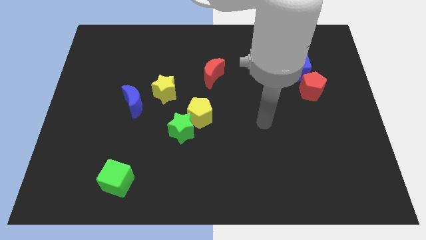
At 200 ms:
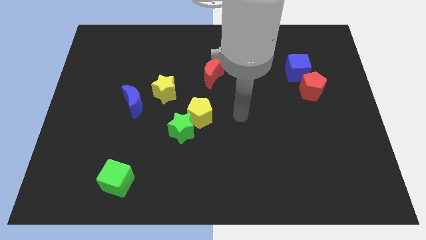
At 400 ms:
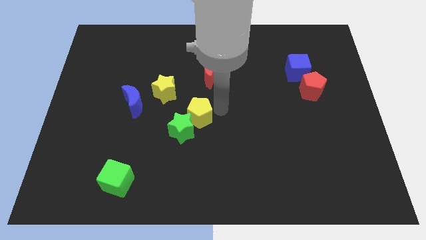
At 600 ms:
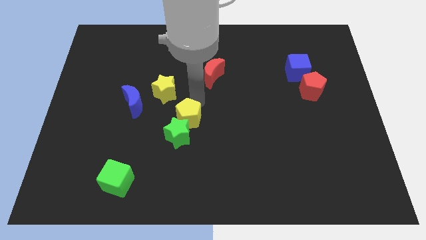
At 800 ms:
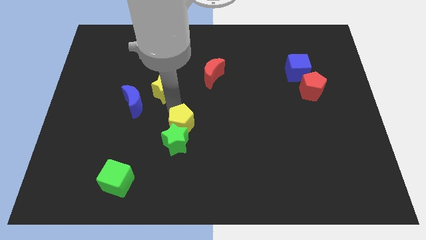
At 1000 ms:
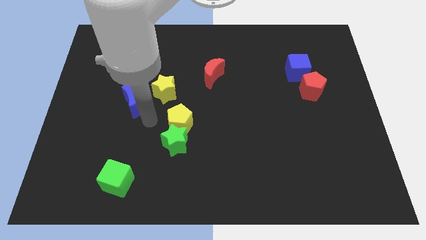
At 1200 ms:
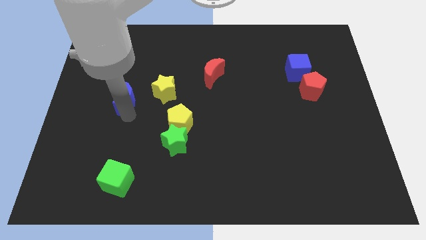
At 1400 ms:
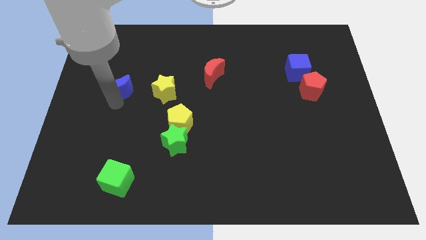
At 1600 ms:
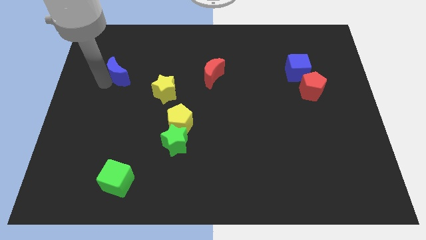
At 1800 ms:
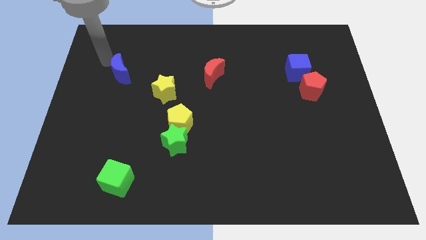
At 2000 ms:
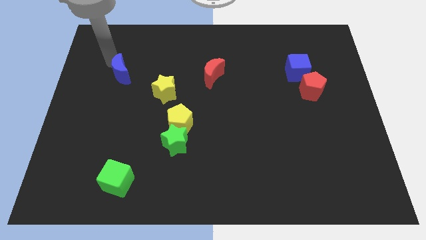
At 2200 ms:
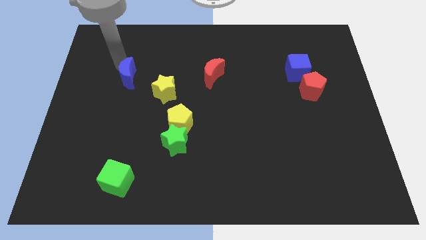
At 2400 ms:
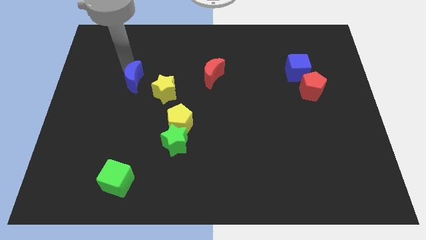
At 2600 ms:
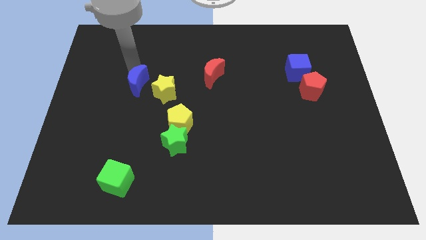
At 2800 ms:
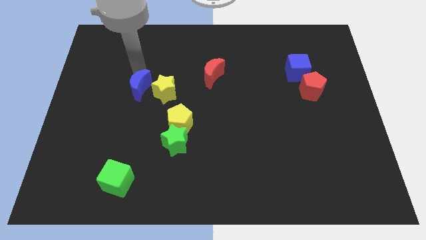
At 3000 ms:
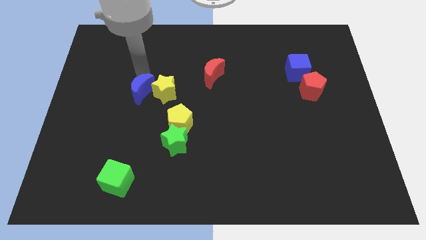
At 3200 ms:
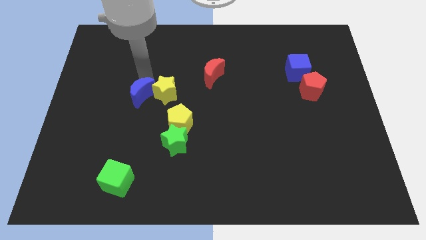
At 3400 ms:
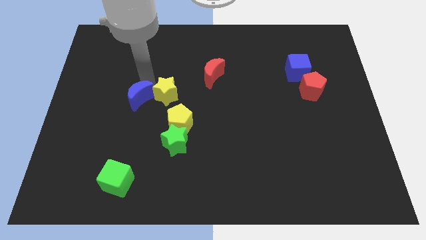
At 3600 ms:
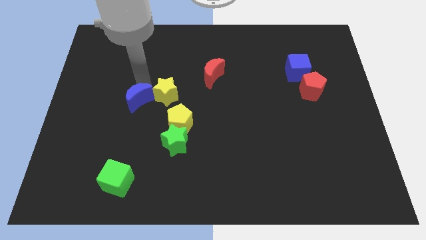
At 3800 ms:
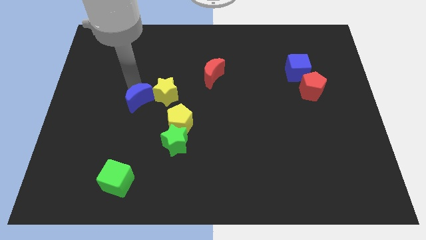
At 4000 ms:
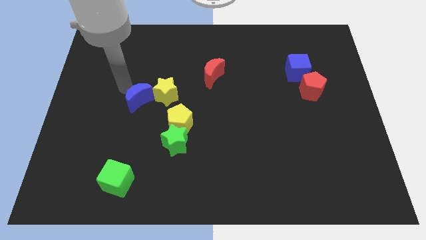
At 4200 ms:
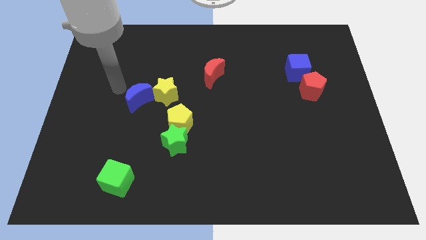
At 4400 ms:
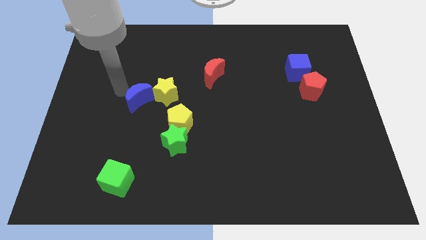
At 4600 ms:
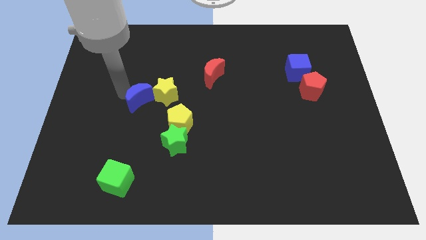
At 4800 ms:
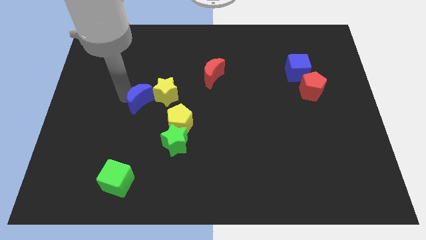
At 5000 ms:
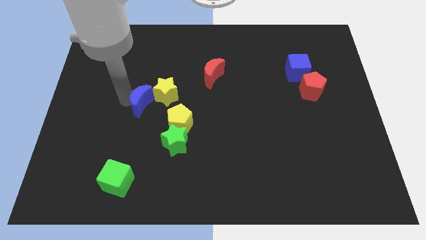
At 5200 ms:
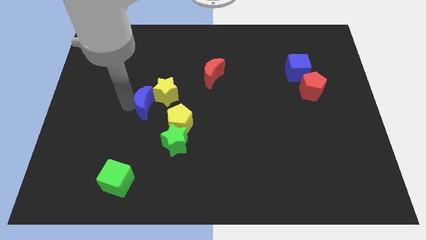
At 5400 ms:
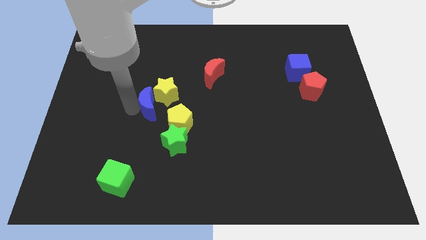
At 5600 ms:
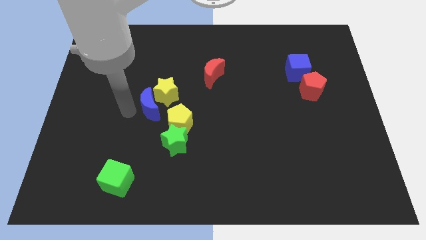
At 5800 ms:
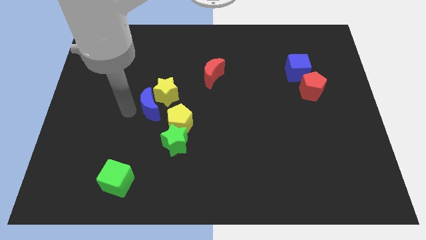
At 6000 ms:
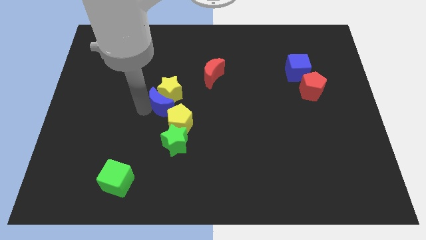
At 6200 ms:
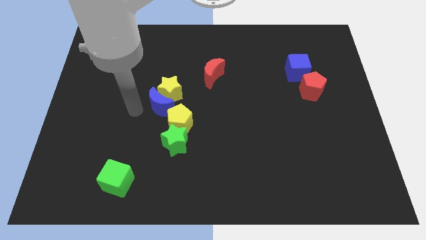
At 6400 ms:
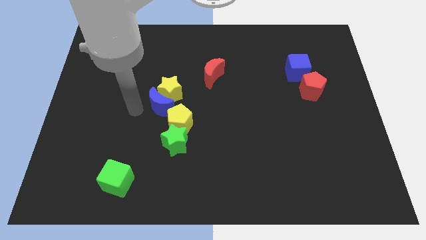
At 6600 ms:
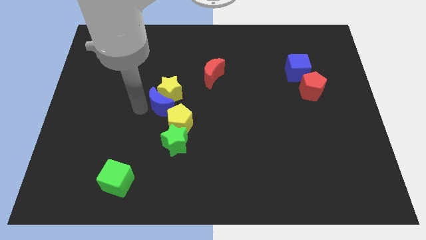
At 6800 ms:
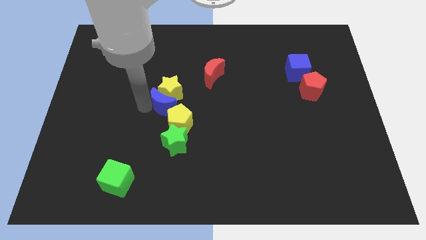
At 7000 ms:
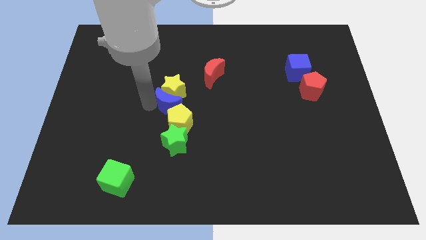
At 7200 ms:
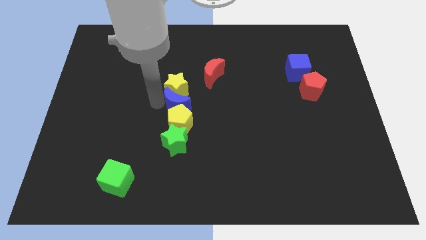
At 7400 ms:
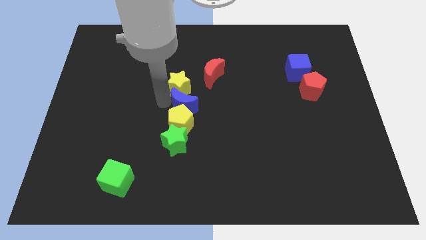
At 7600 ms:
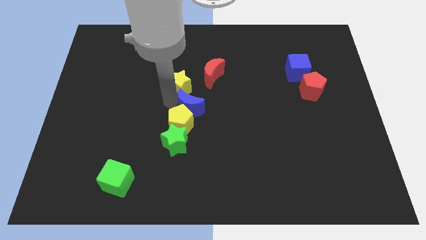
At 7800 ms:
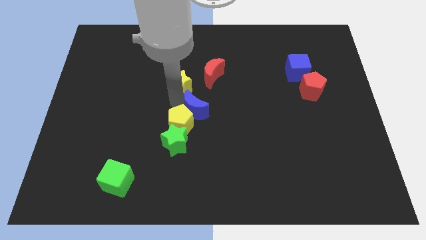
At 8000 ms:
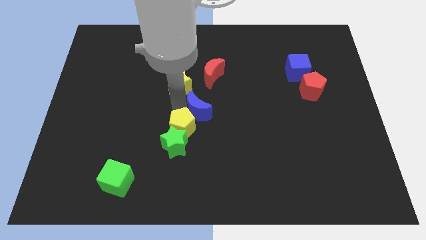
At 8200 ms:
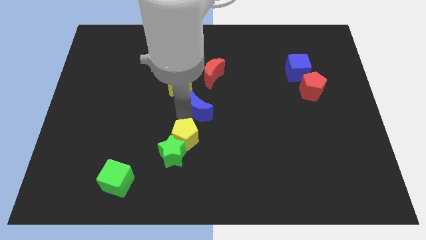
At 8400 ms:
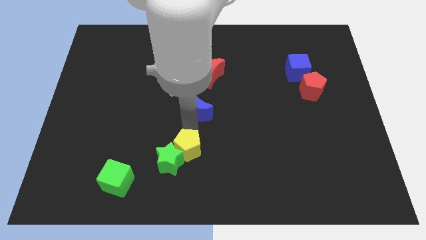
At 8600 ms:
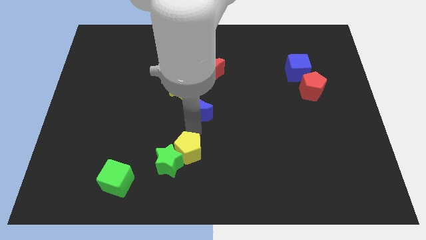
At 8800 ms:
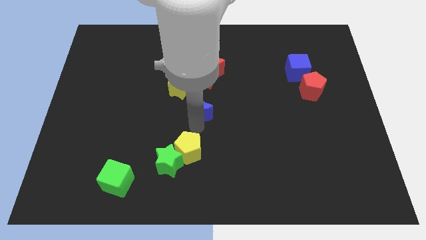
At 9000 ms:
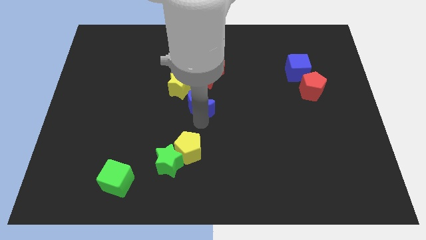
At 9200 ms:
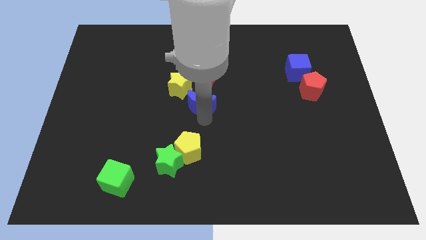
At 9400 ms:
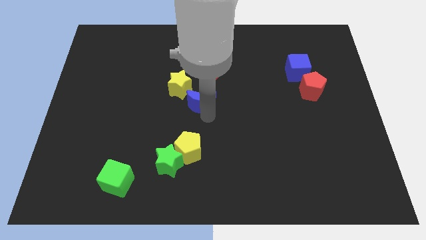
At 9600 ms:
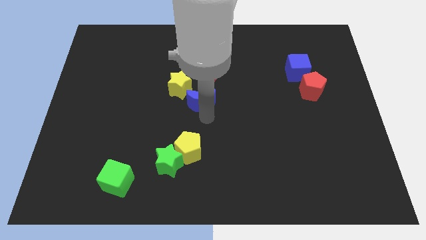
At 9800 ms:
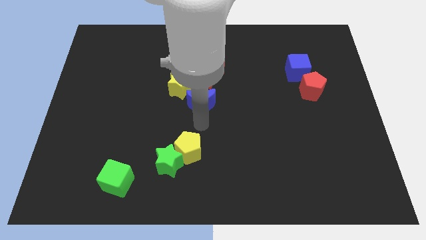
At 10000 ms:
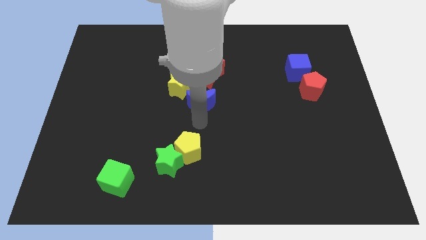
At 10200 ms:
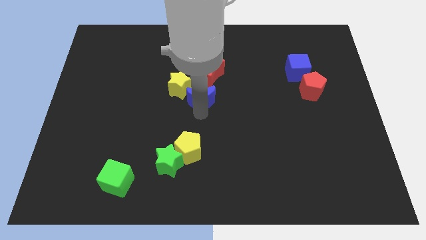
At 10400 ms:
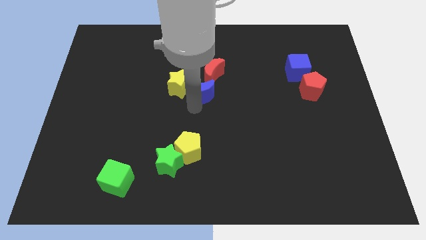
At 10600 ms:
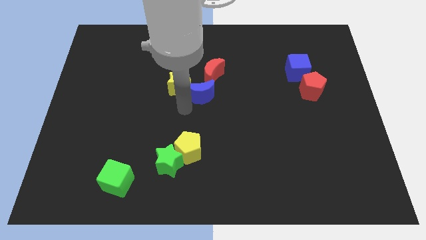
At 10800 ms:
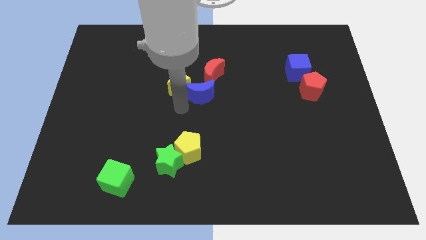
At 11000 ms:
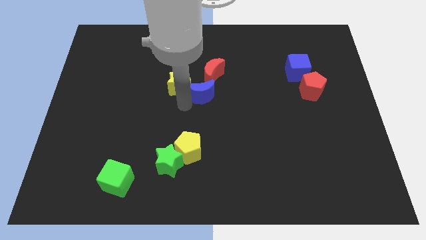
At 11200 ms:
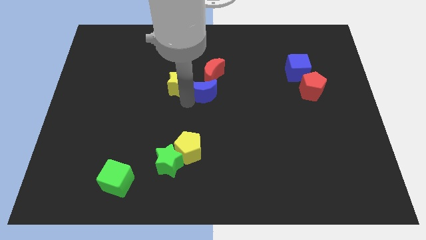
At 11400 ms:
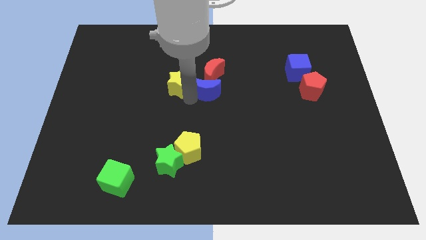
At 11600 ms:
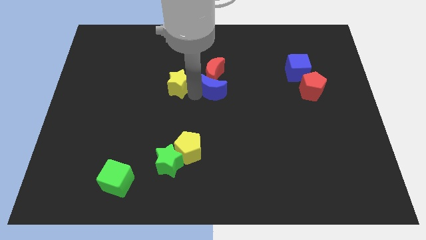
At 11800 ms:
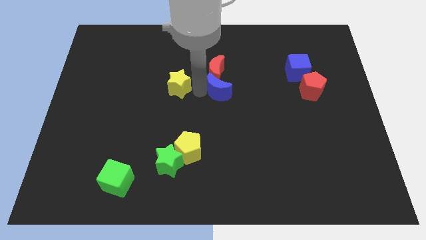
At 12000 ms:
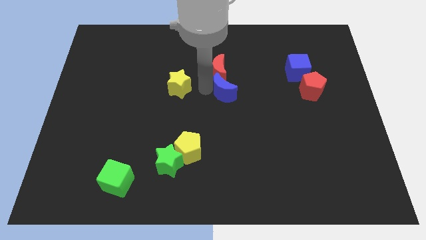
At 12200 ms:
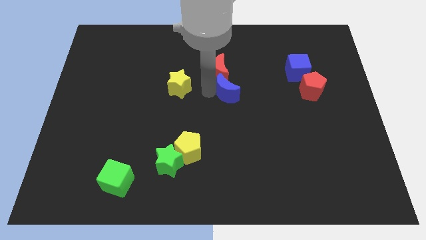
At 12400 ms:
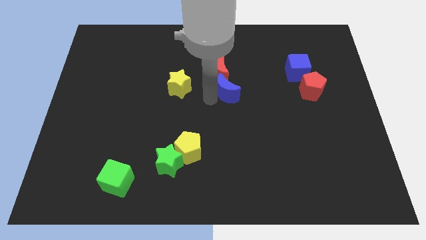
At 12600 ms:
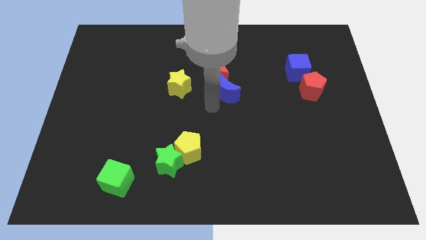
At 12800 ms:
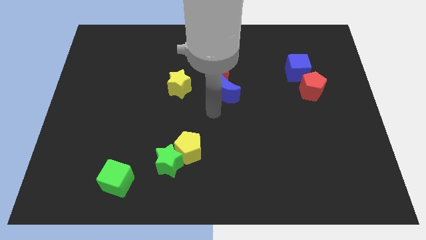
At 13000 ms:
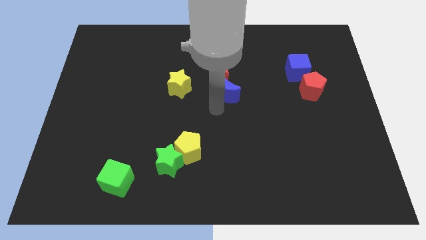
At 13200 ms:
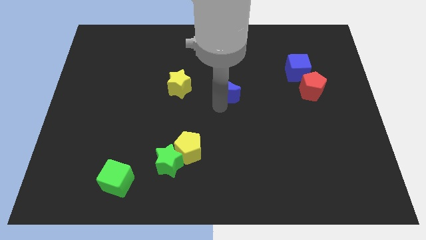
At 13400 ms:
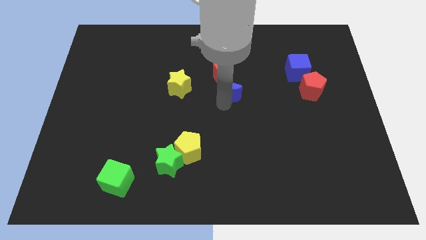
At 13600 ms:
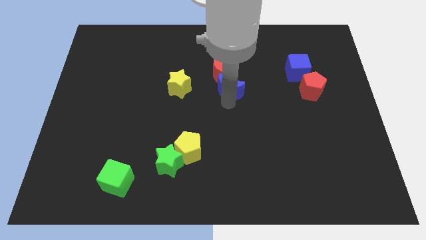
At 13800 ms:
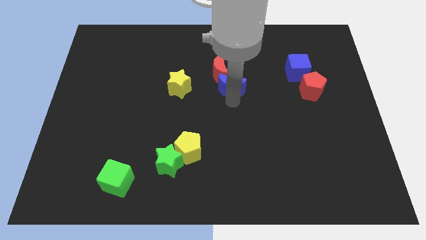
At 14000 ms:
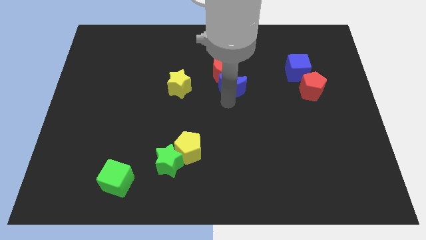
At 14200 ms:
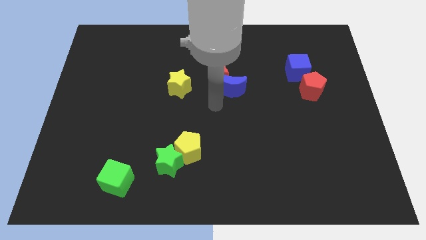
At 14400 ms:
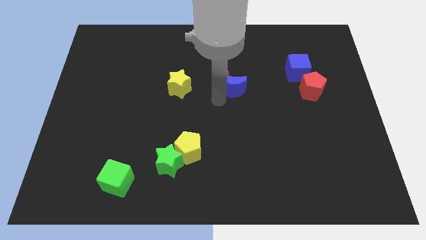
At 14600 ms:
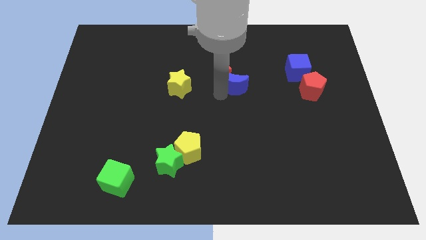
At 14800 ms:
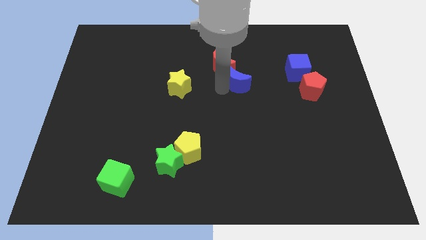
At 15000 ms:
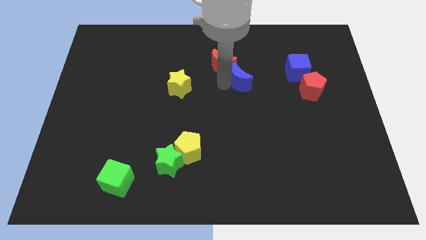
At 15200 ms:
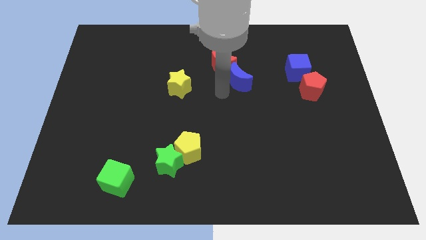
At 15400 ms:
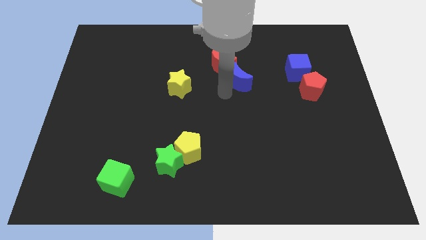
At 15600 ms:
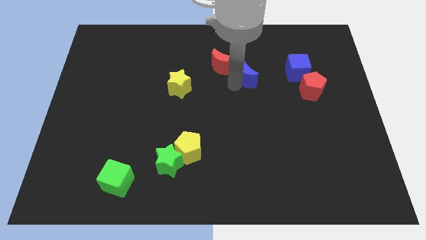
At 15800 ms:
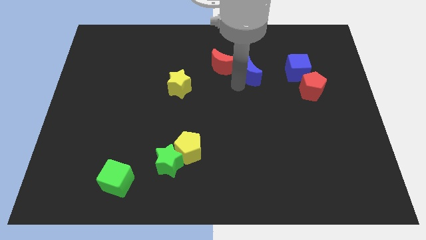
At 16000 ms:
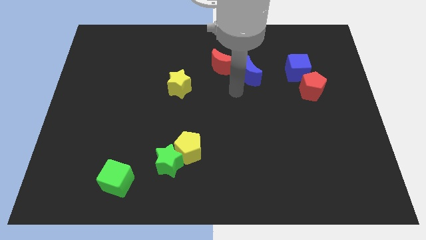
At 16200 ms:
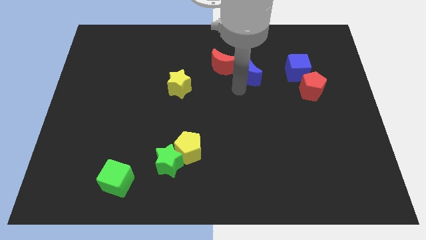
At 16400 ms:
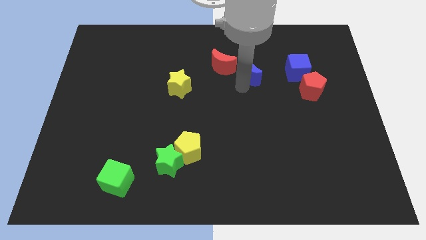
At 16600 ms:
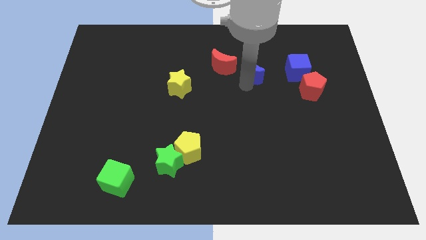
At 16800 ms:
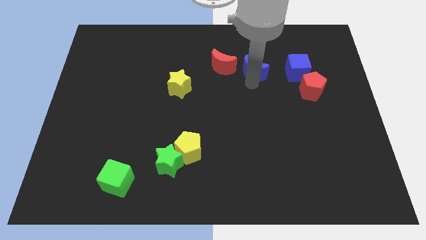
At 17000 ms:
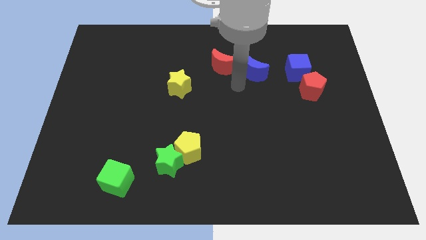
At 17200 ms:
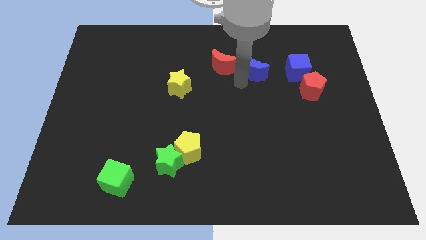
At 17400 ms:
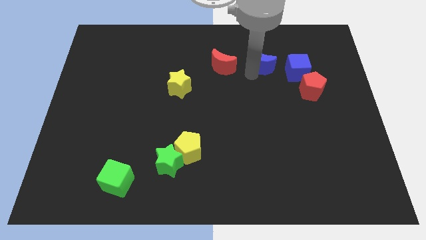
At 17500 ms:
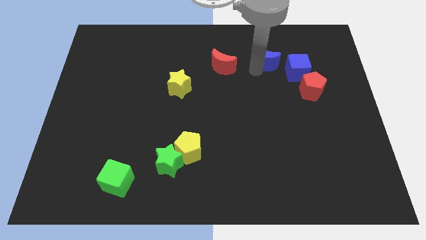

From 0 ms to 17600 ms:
move the blue moon diagonally up and to the left of the blue cube
